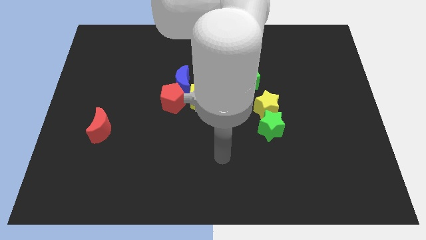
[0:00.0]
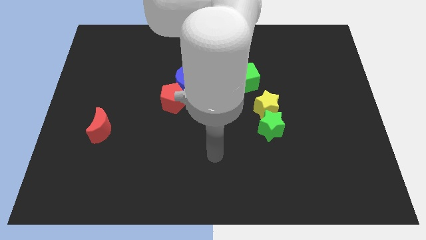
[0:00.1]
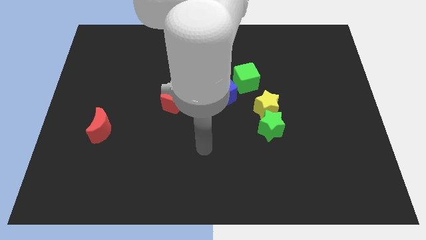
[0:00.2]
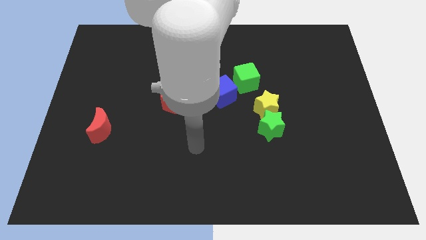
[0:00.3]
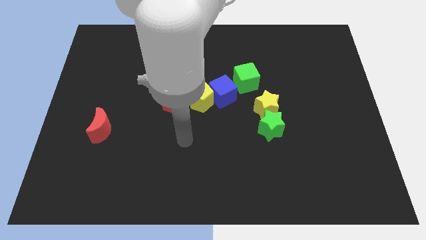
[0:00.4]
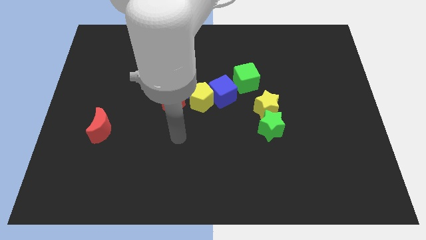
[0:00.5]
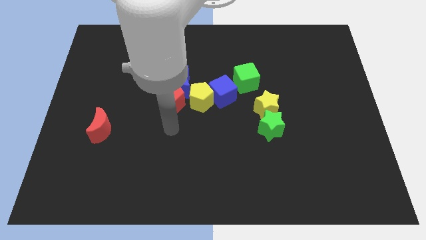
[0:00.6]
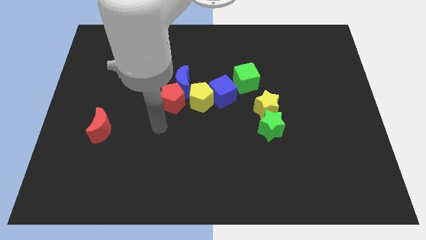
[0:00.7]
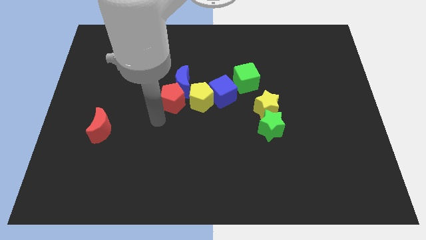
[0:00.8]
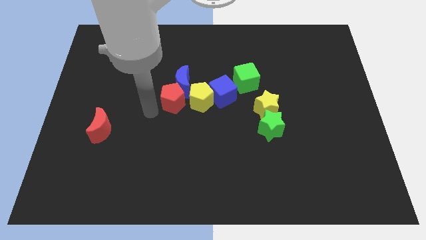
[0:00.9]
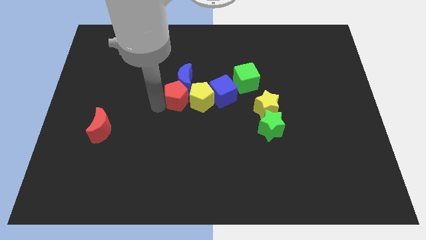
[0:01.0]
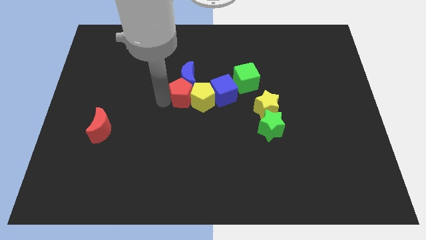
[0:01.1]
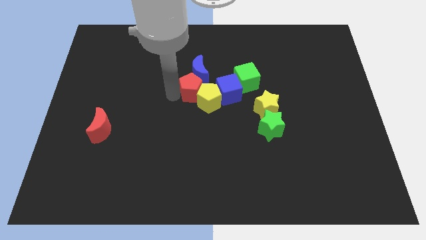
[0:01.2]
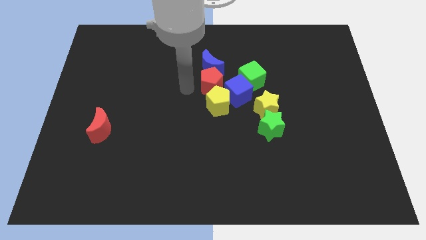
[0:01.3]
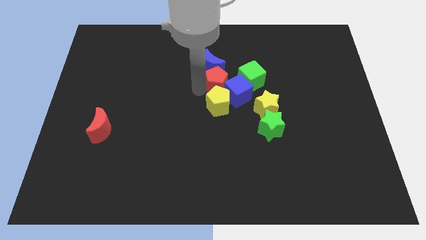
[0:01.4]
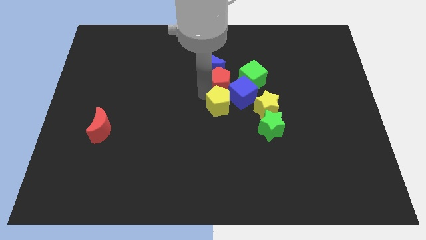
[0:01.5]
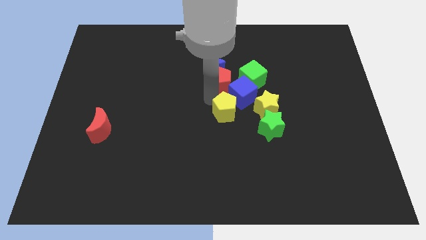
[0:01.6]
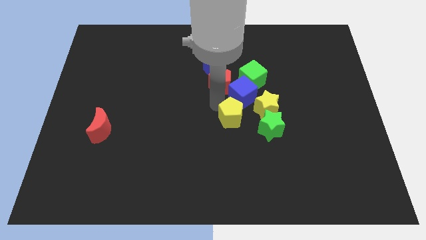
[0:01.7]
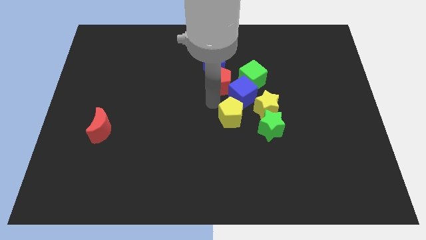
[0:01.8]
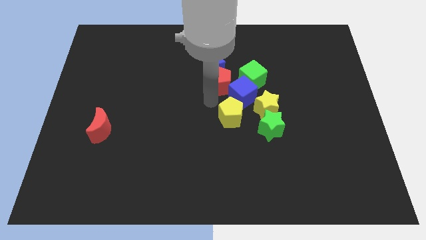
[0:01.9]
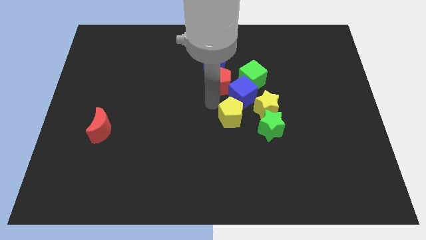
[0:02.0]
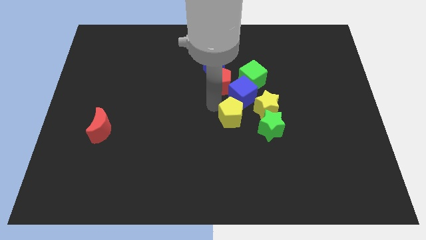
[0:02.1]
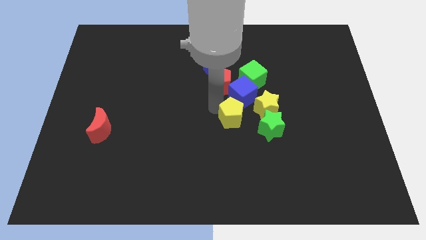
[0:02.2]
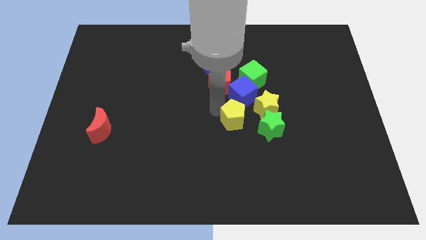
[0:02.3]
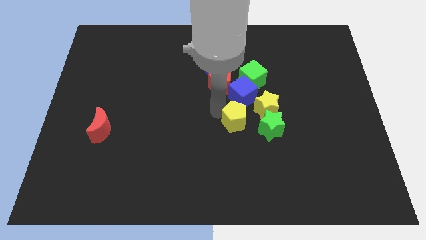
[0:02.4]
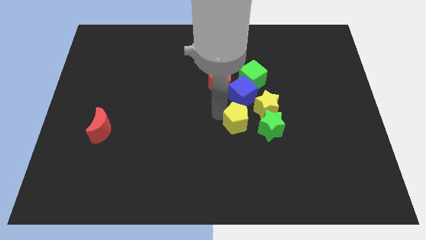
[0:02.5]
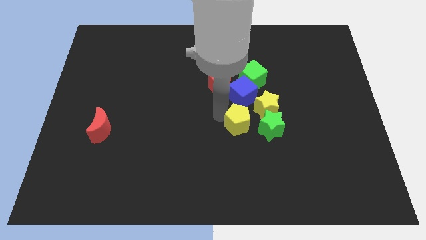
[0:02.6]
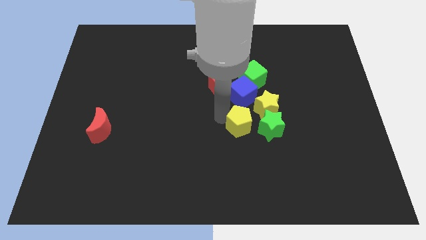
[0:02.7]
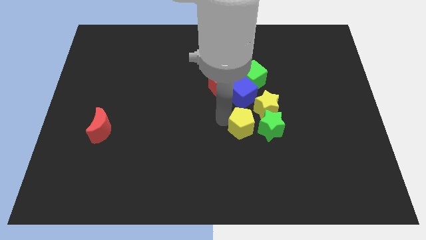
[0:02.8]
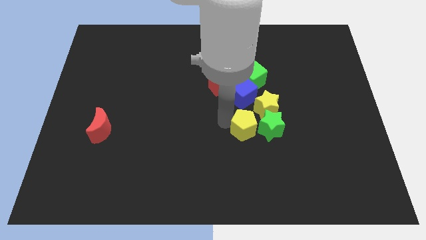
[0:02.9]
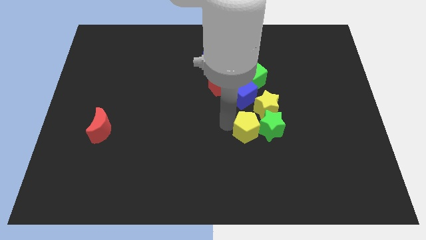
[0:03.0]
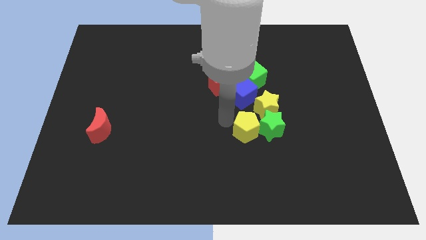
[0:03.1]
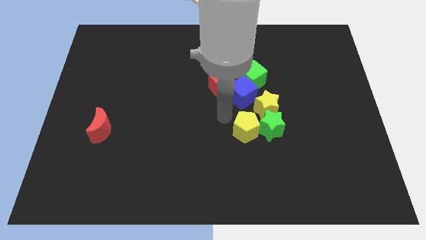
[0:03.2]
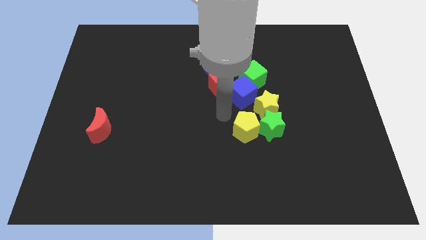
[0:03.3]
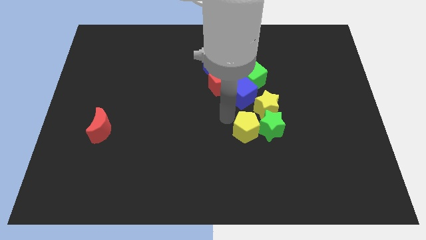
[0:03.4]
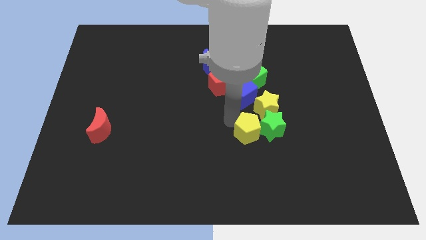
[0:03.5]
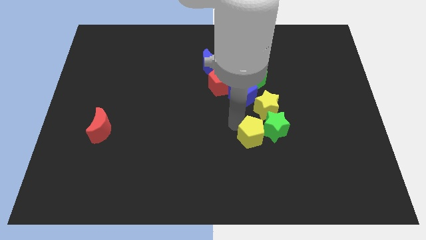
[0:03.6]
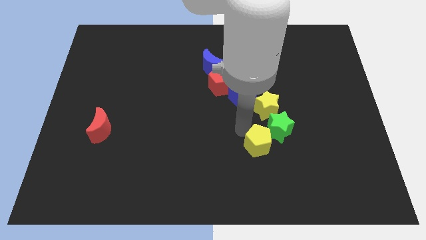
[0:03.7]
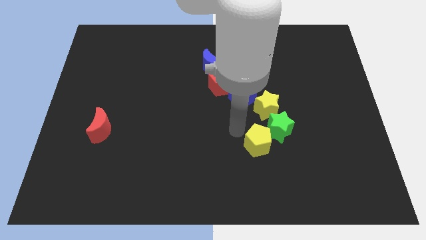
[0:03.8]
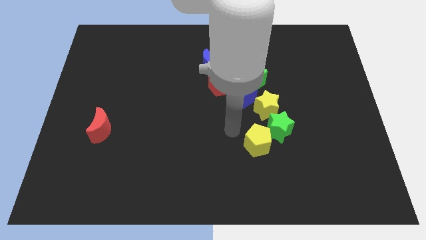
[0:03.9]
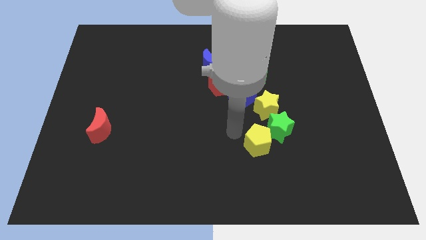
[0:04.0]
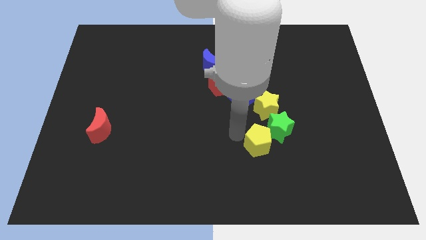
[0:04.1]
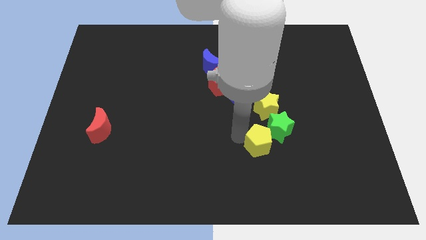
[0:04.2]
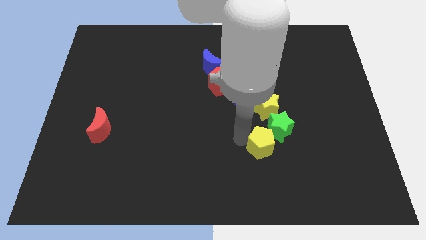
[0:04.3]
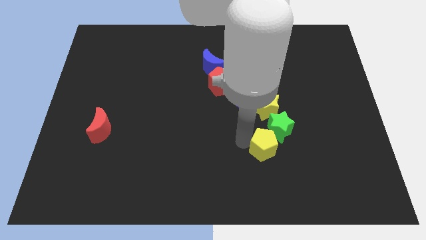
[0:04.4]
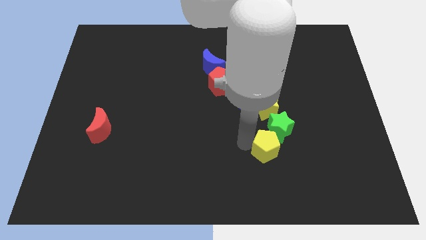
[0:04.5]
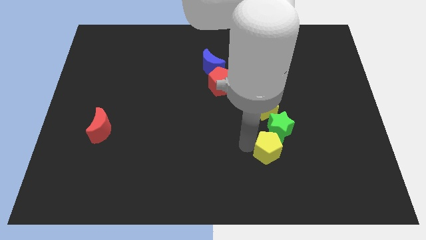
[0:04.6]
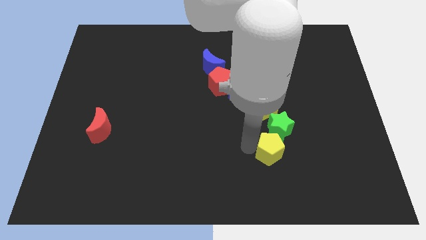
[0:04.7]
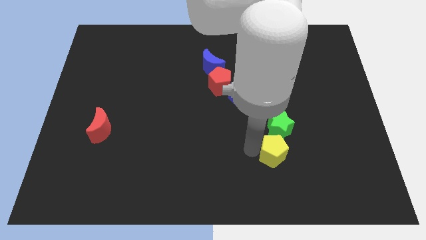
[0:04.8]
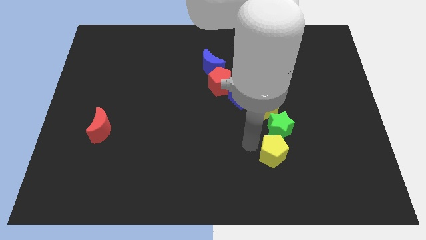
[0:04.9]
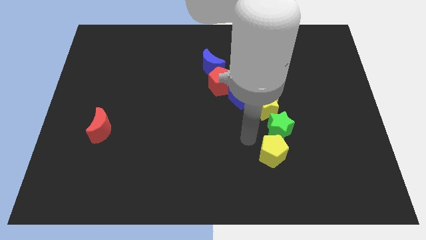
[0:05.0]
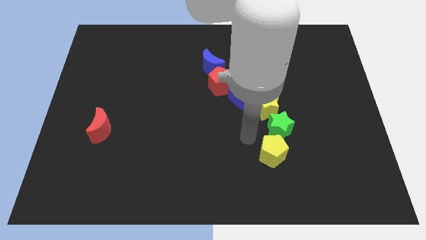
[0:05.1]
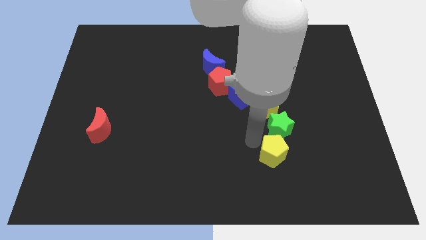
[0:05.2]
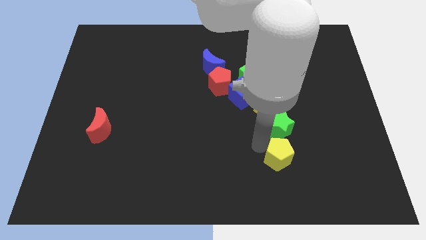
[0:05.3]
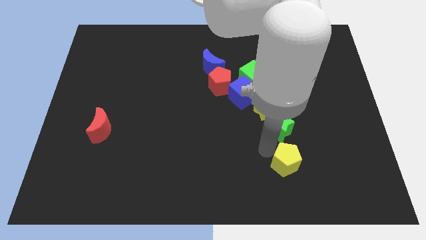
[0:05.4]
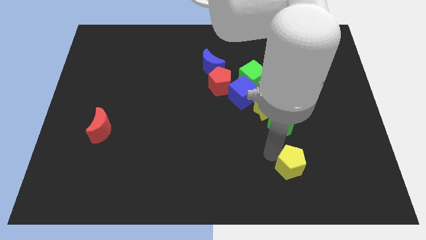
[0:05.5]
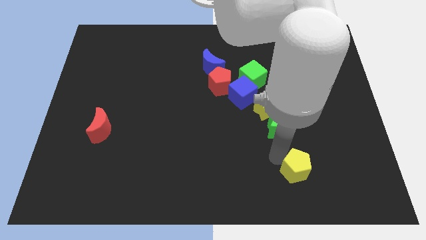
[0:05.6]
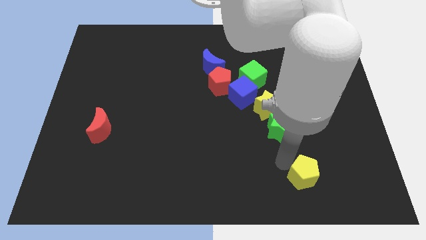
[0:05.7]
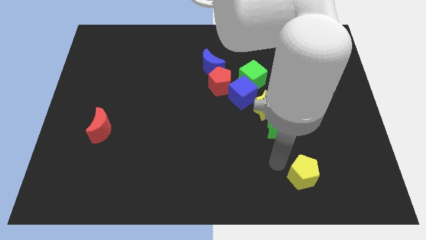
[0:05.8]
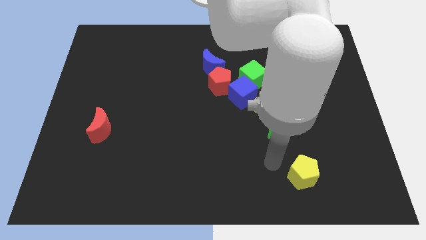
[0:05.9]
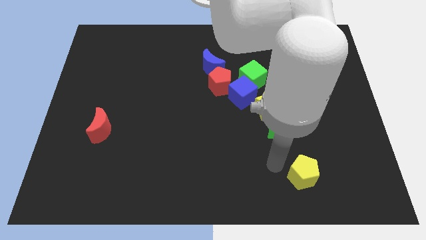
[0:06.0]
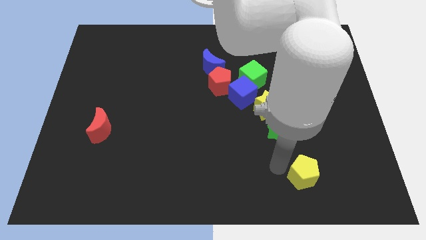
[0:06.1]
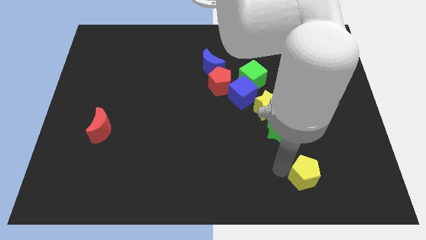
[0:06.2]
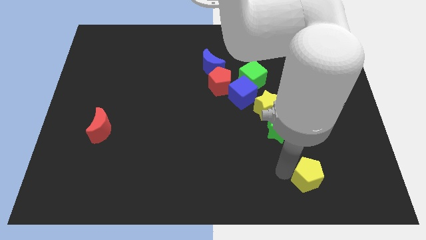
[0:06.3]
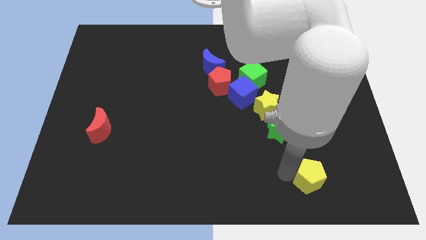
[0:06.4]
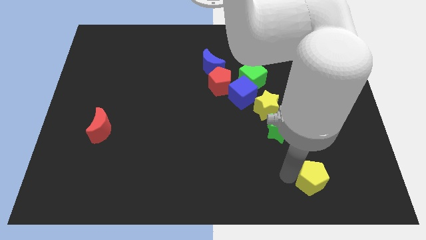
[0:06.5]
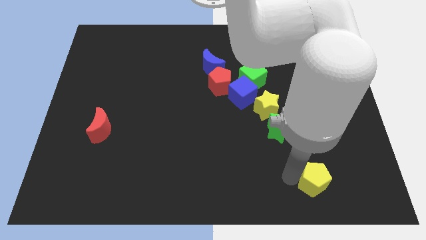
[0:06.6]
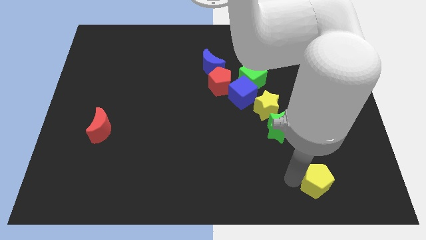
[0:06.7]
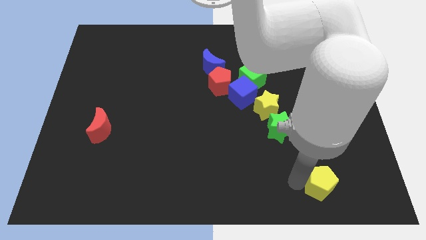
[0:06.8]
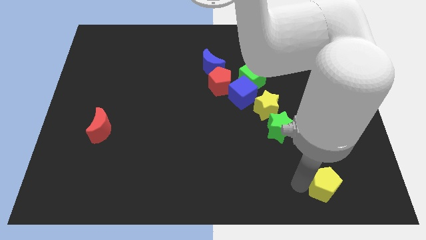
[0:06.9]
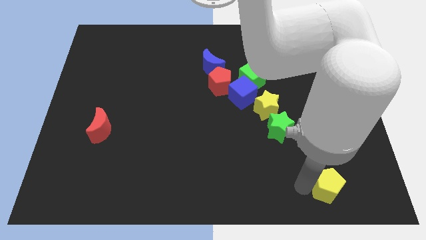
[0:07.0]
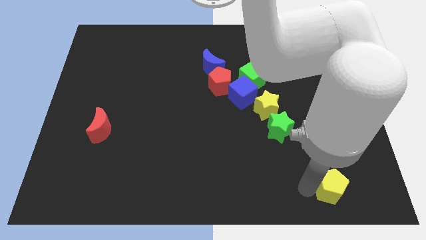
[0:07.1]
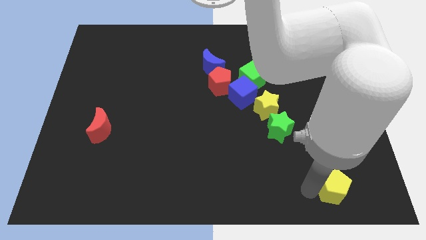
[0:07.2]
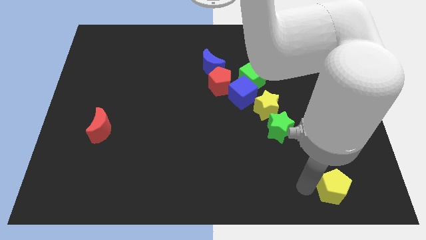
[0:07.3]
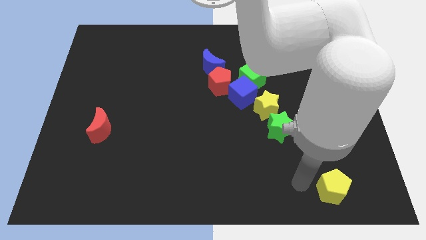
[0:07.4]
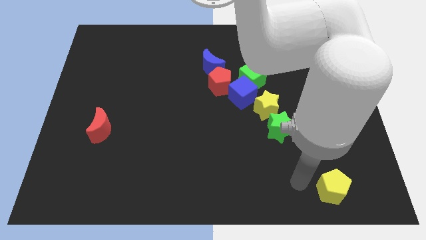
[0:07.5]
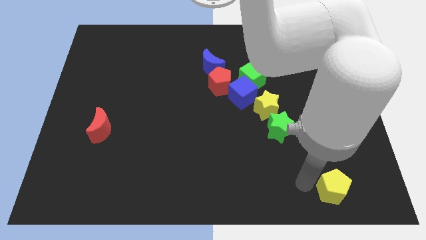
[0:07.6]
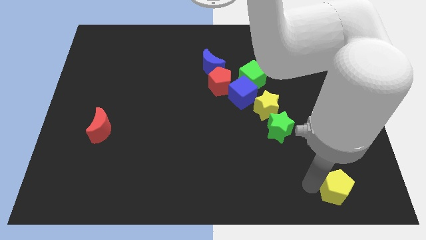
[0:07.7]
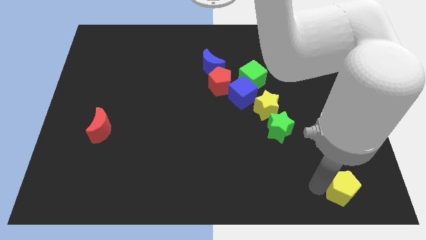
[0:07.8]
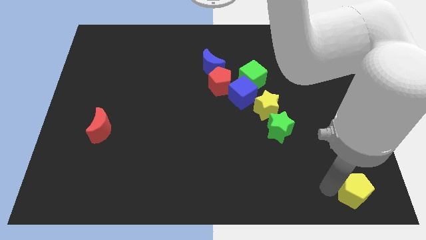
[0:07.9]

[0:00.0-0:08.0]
push the yellow pentagon to the bottom right of the board
